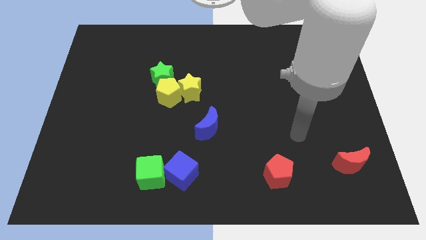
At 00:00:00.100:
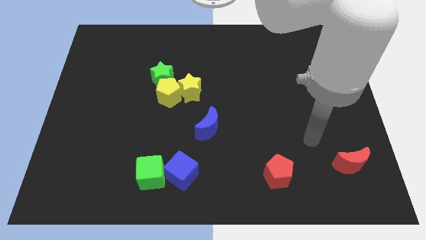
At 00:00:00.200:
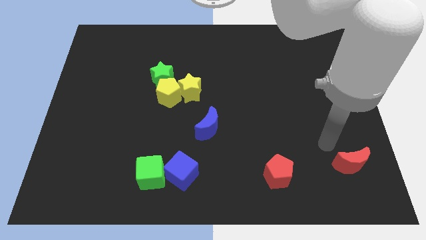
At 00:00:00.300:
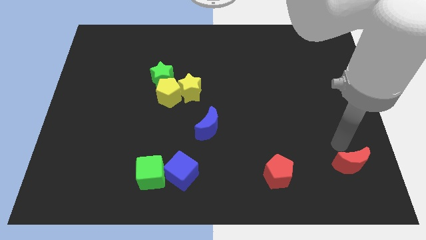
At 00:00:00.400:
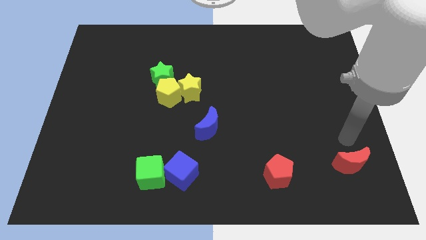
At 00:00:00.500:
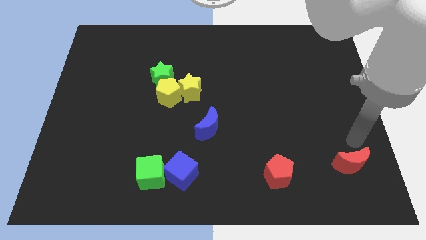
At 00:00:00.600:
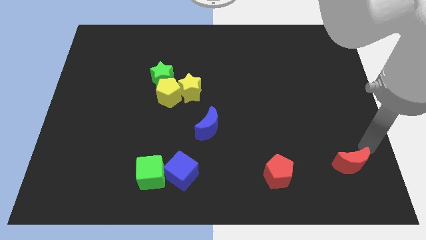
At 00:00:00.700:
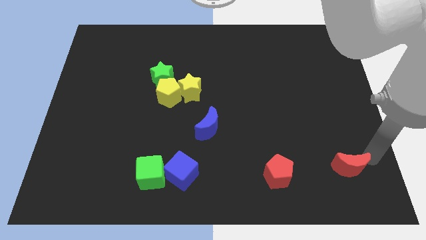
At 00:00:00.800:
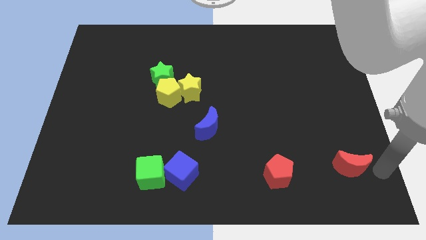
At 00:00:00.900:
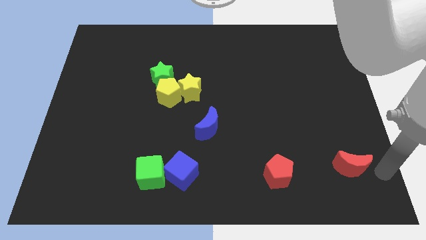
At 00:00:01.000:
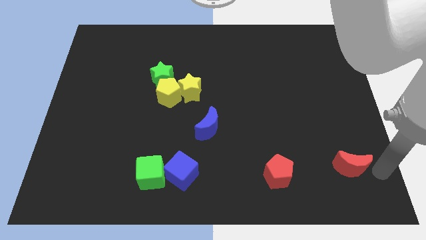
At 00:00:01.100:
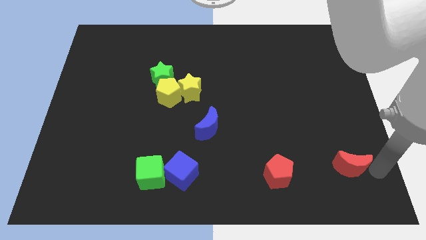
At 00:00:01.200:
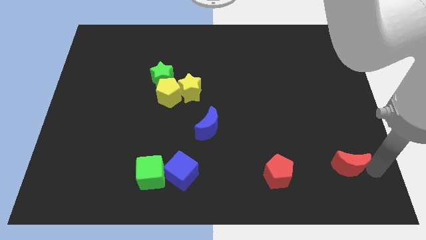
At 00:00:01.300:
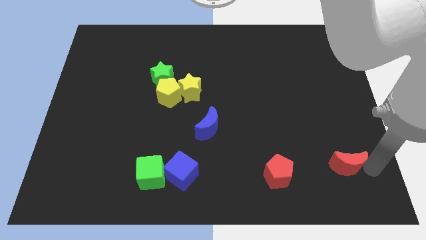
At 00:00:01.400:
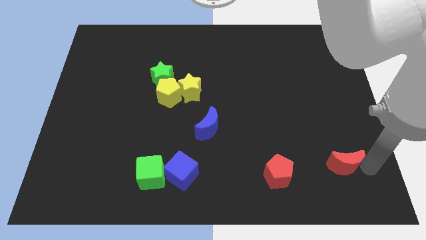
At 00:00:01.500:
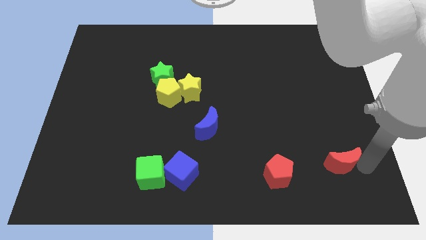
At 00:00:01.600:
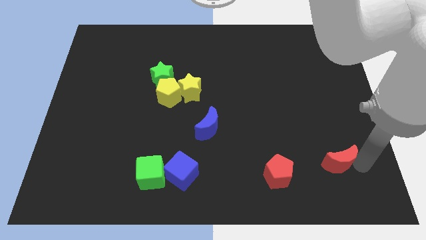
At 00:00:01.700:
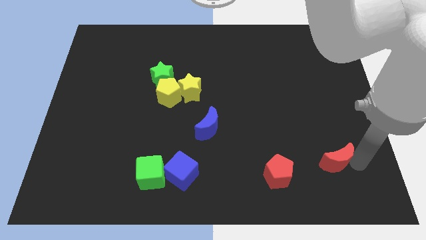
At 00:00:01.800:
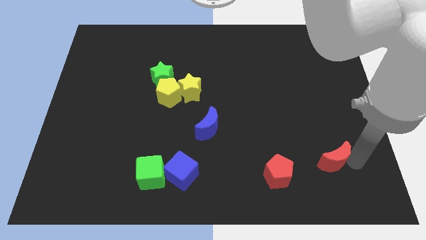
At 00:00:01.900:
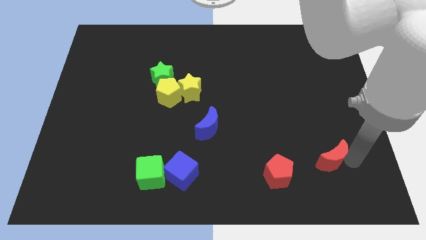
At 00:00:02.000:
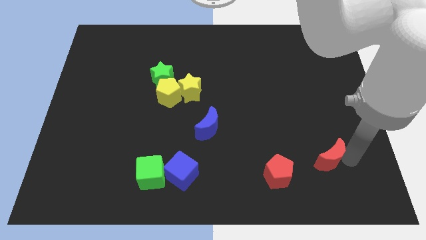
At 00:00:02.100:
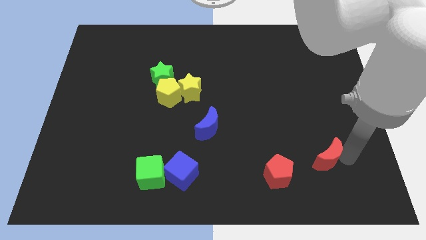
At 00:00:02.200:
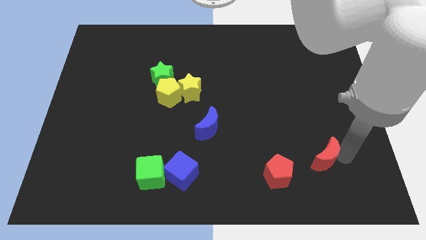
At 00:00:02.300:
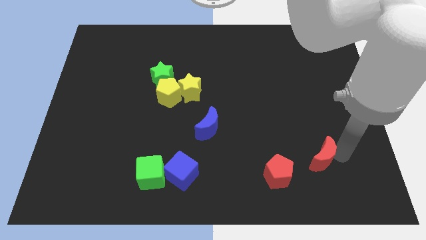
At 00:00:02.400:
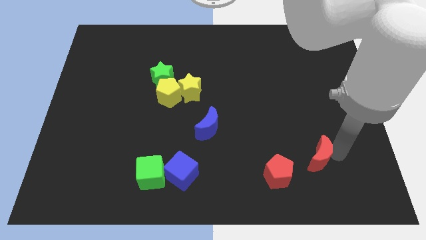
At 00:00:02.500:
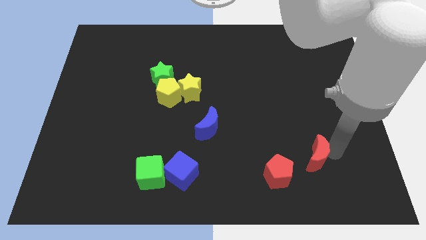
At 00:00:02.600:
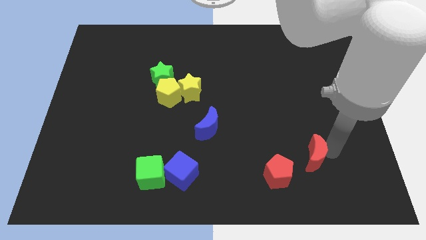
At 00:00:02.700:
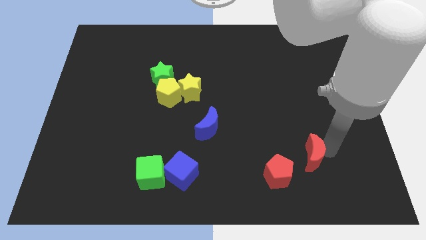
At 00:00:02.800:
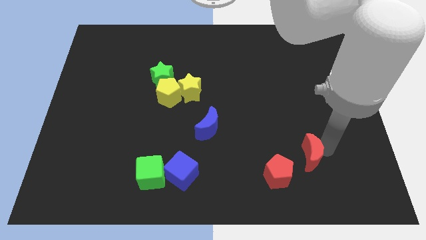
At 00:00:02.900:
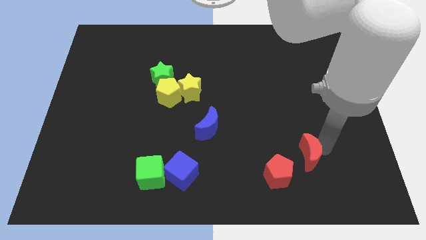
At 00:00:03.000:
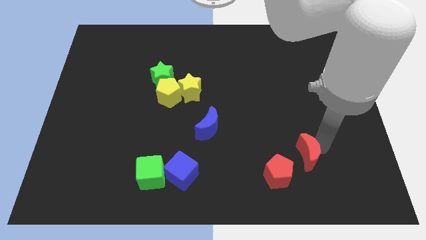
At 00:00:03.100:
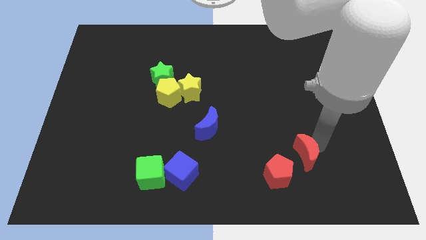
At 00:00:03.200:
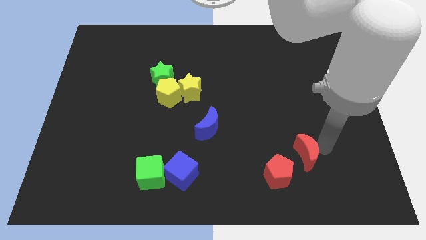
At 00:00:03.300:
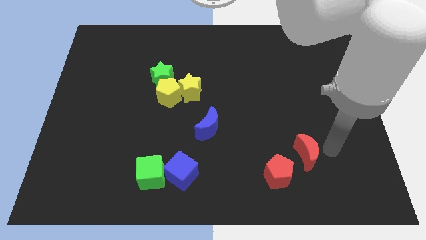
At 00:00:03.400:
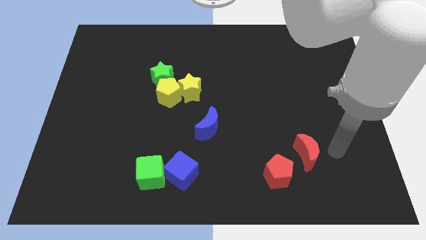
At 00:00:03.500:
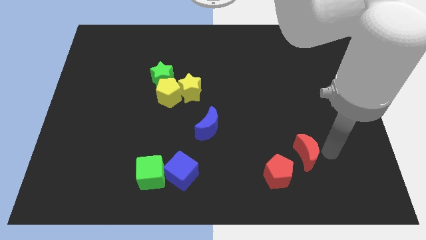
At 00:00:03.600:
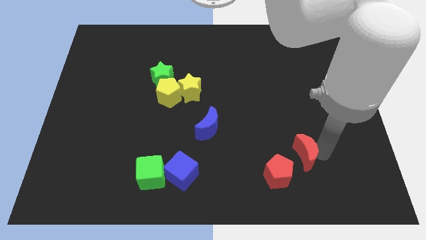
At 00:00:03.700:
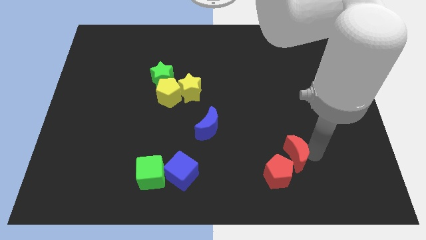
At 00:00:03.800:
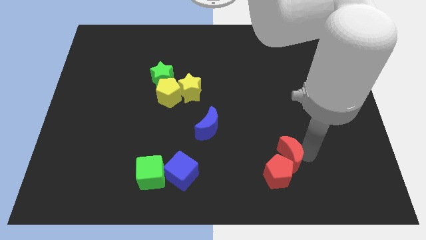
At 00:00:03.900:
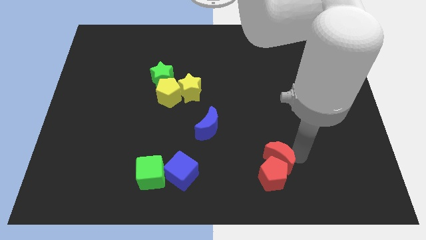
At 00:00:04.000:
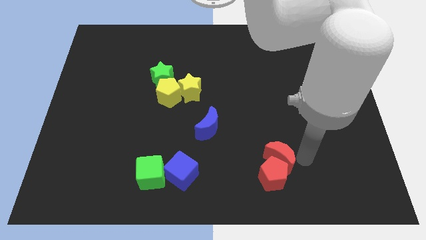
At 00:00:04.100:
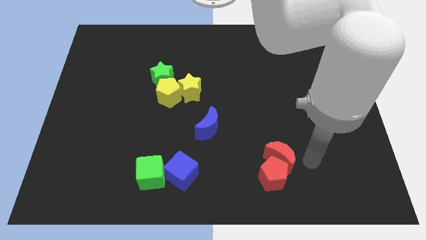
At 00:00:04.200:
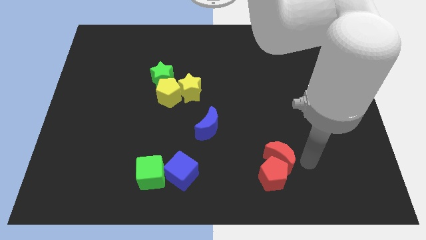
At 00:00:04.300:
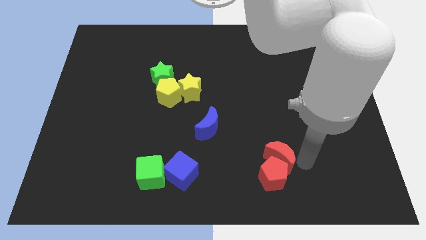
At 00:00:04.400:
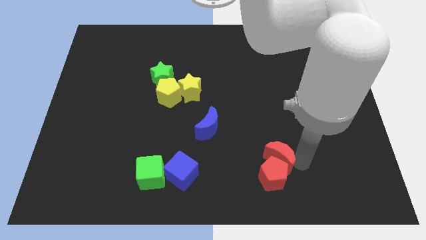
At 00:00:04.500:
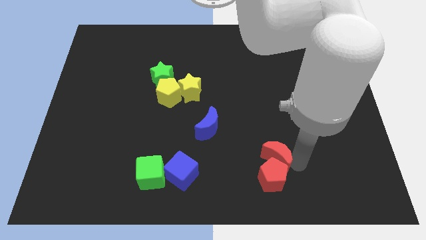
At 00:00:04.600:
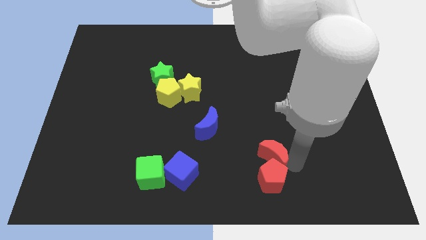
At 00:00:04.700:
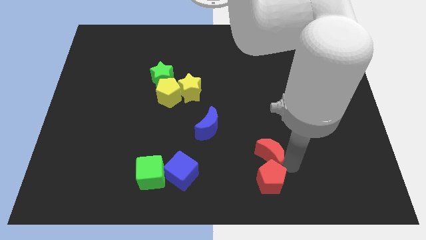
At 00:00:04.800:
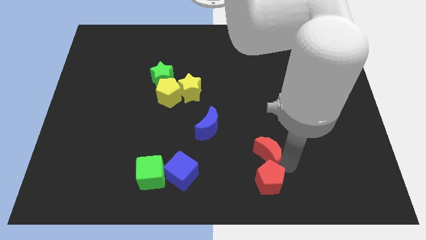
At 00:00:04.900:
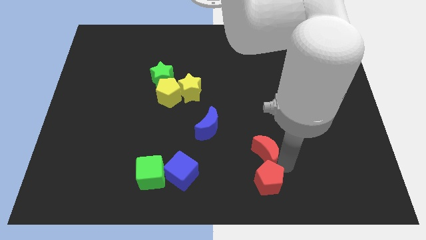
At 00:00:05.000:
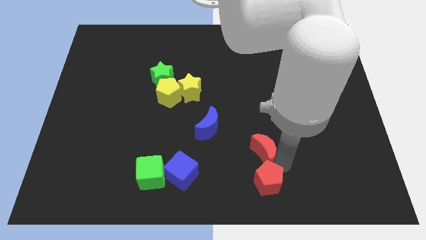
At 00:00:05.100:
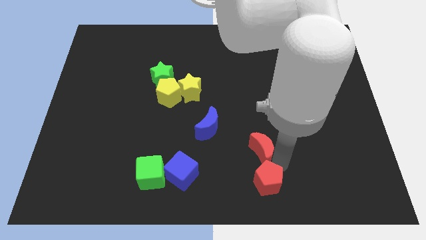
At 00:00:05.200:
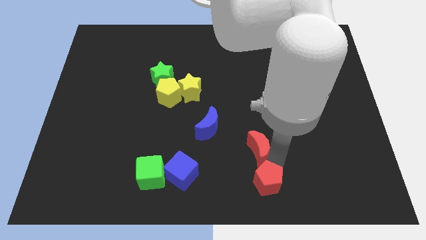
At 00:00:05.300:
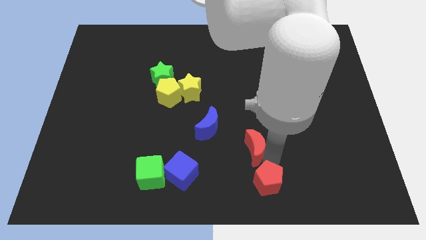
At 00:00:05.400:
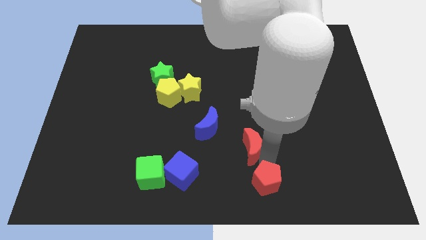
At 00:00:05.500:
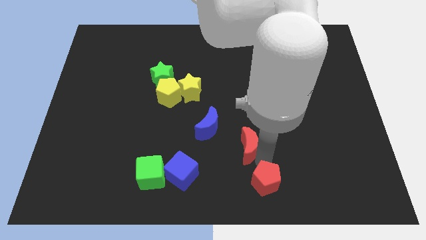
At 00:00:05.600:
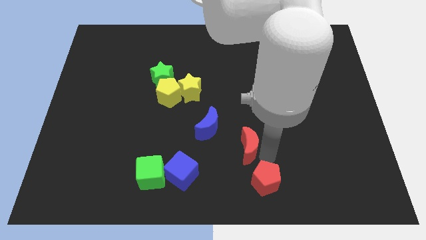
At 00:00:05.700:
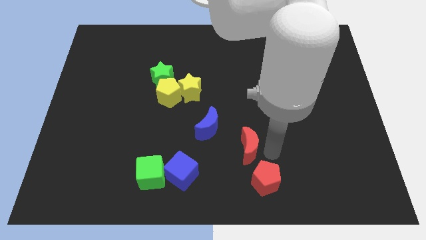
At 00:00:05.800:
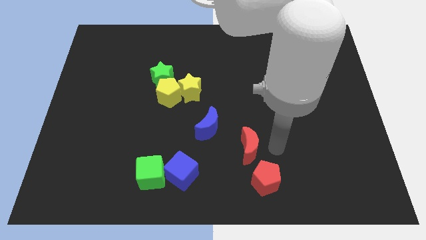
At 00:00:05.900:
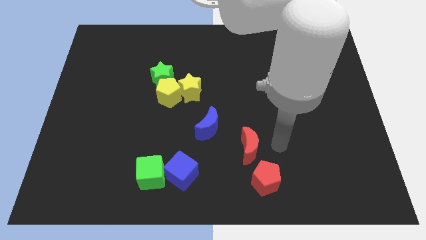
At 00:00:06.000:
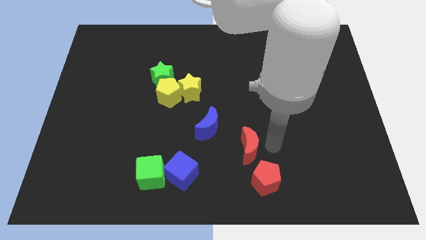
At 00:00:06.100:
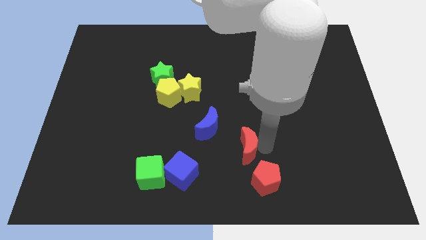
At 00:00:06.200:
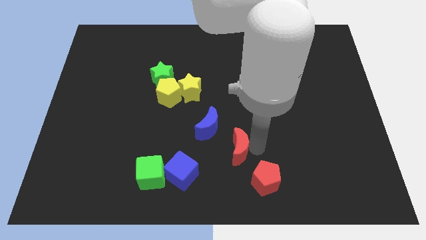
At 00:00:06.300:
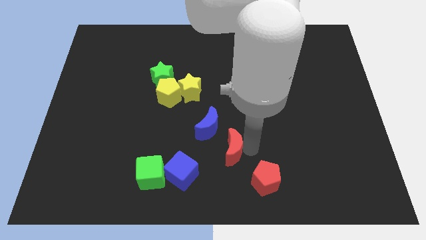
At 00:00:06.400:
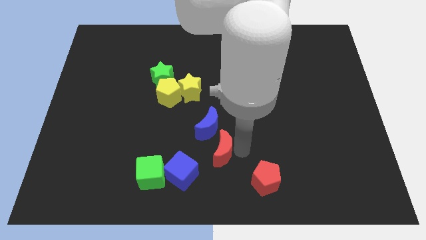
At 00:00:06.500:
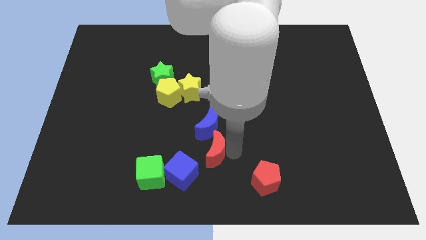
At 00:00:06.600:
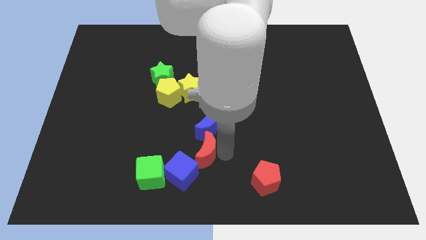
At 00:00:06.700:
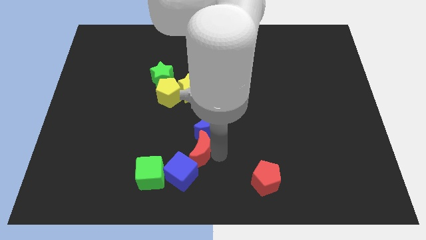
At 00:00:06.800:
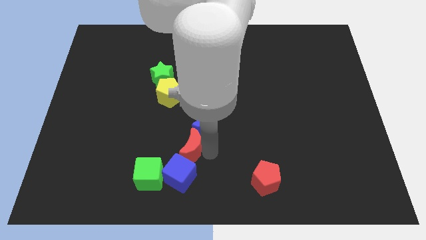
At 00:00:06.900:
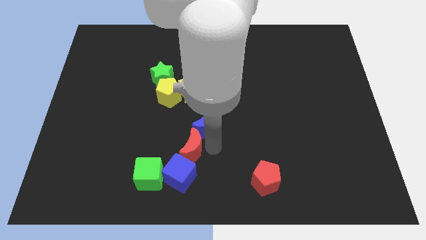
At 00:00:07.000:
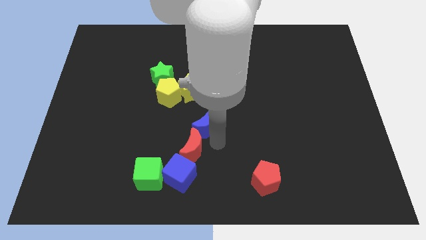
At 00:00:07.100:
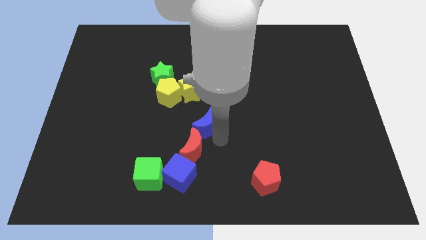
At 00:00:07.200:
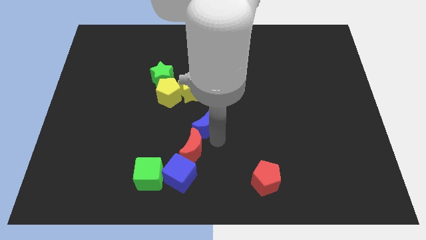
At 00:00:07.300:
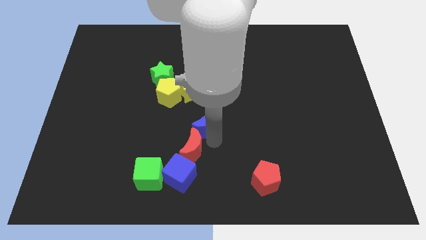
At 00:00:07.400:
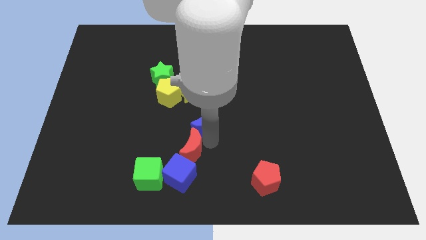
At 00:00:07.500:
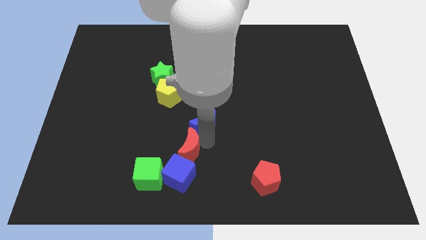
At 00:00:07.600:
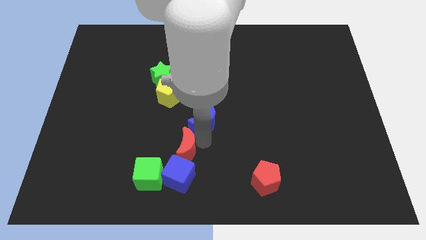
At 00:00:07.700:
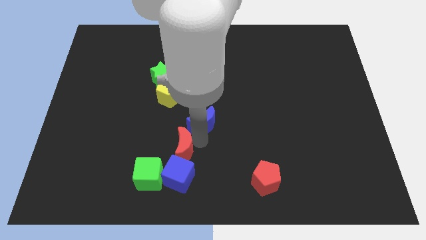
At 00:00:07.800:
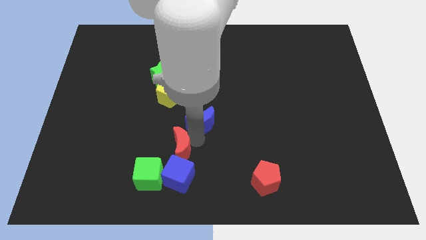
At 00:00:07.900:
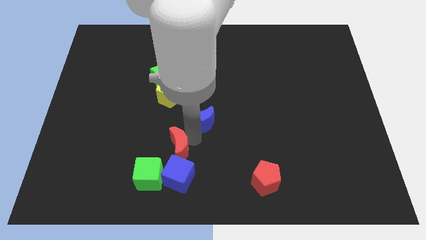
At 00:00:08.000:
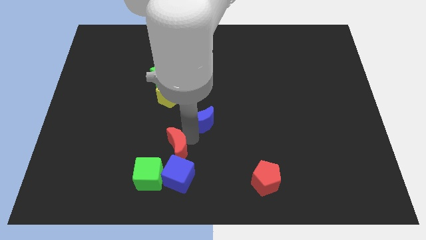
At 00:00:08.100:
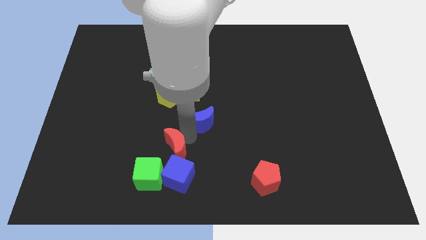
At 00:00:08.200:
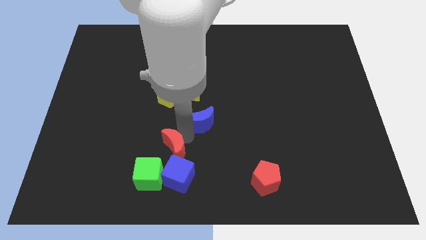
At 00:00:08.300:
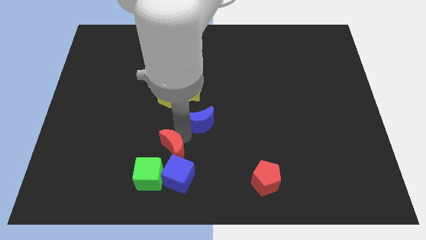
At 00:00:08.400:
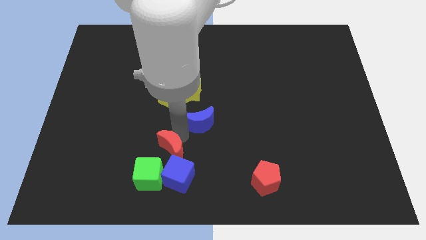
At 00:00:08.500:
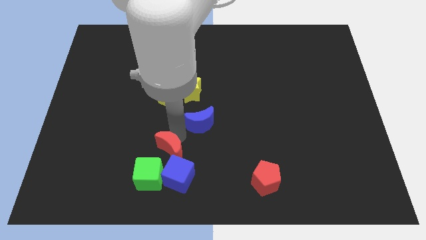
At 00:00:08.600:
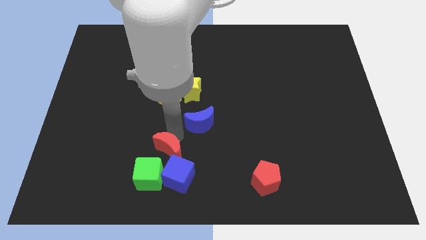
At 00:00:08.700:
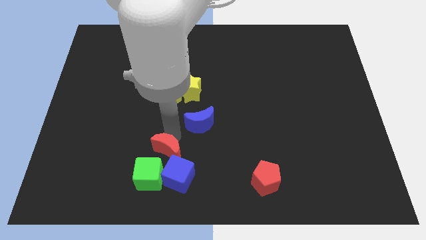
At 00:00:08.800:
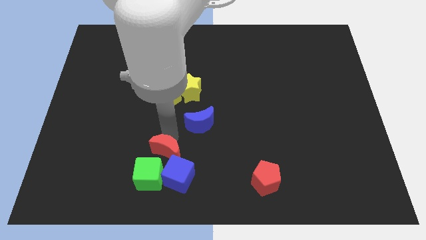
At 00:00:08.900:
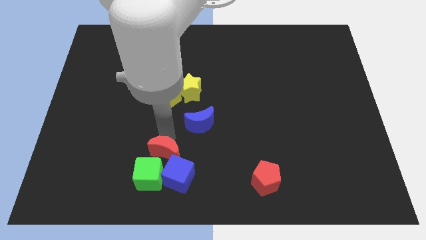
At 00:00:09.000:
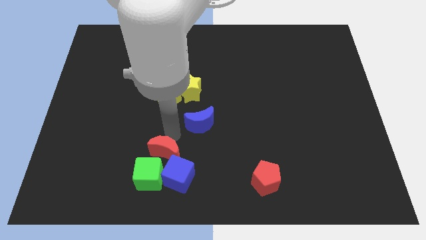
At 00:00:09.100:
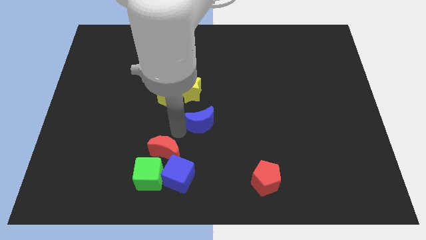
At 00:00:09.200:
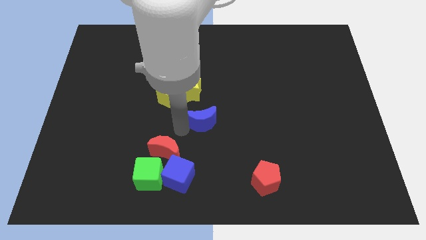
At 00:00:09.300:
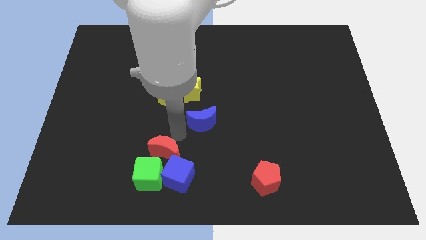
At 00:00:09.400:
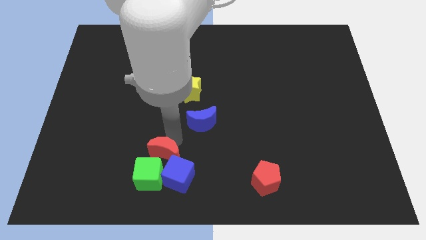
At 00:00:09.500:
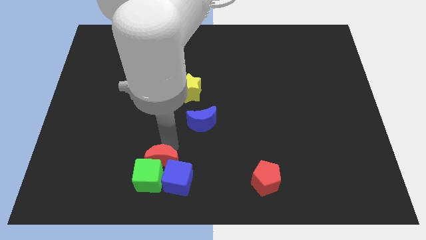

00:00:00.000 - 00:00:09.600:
push the red moon next to the green cube
